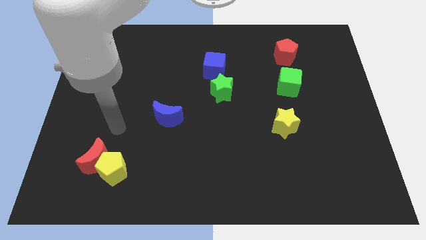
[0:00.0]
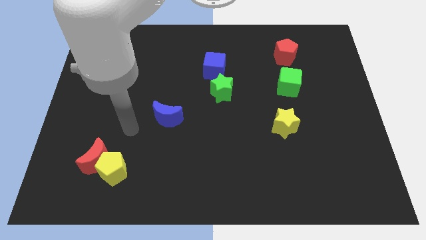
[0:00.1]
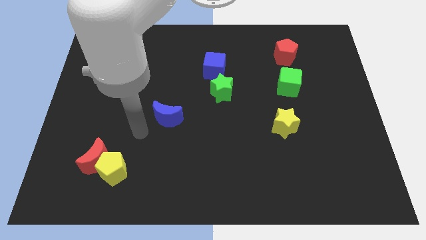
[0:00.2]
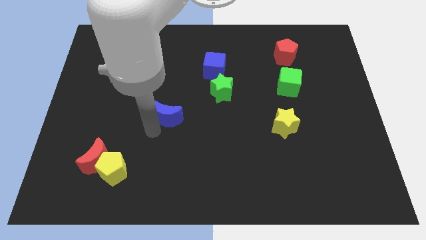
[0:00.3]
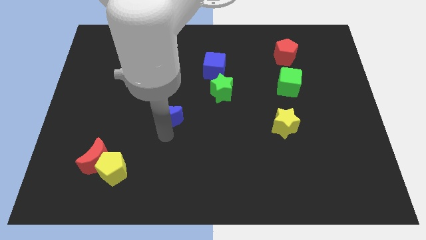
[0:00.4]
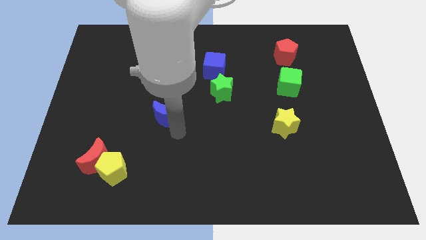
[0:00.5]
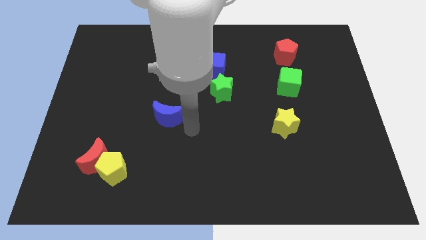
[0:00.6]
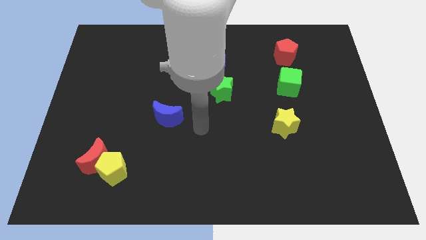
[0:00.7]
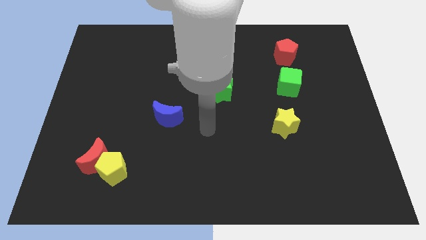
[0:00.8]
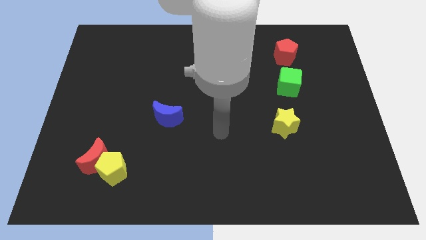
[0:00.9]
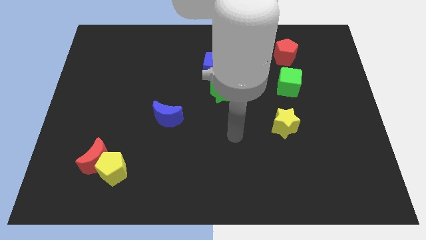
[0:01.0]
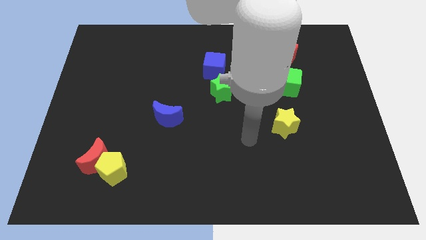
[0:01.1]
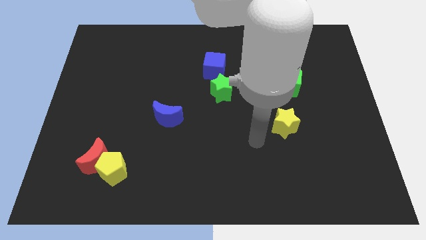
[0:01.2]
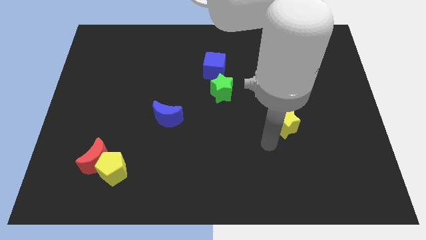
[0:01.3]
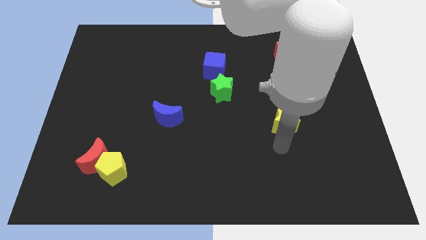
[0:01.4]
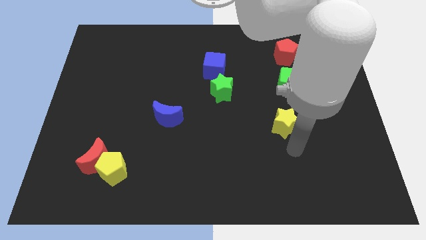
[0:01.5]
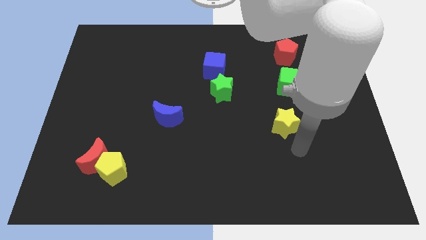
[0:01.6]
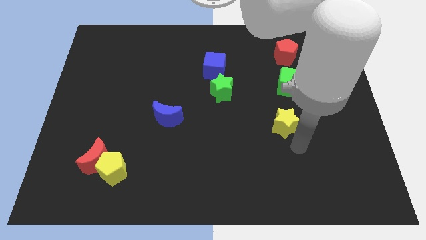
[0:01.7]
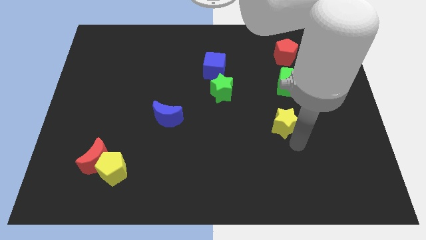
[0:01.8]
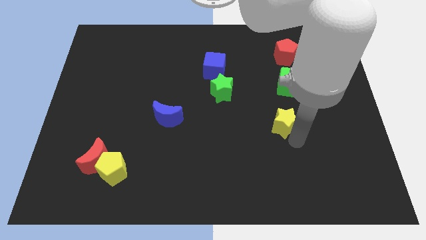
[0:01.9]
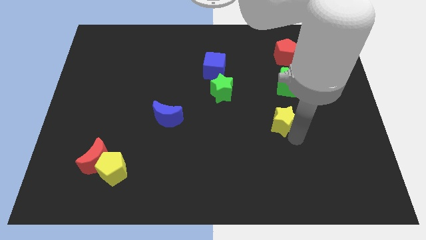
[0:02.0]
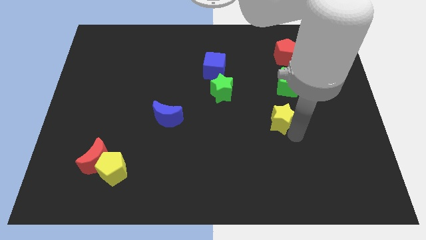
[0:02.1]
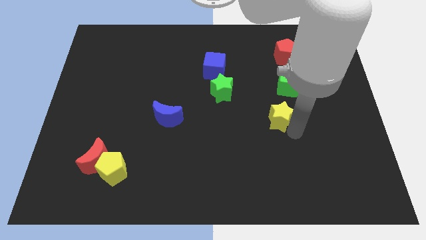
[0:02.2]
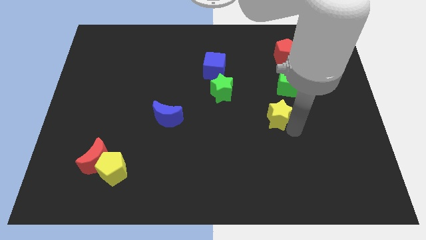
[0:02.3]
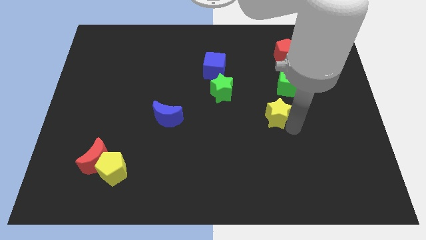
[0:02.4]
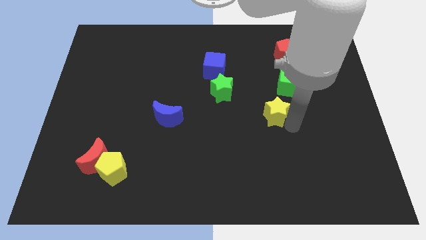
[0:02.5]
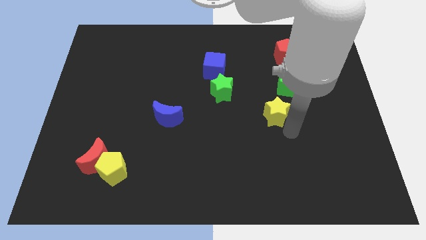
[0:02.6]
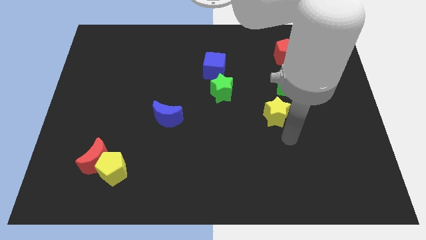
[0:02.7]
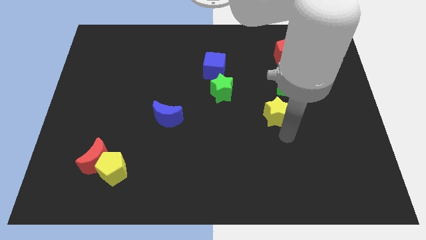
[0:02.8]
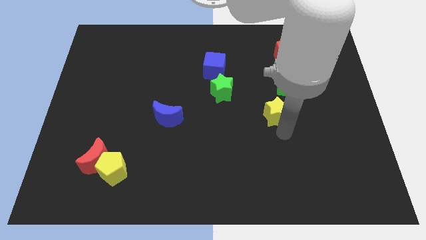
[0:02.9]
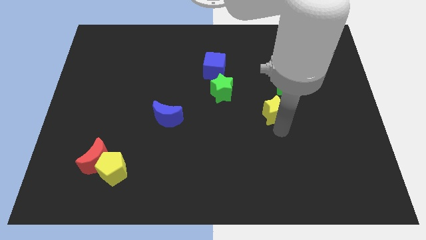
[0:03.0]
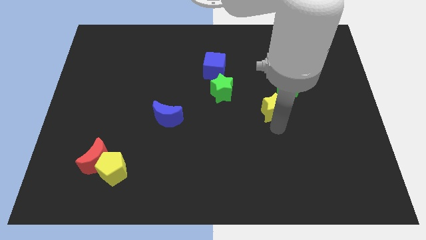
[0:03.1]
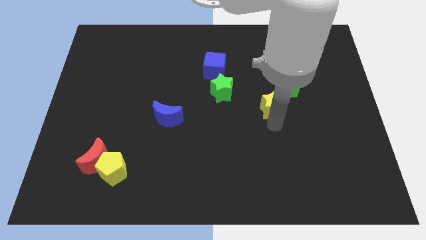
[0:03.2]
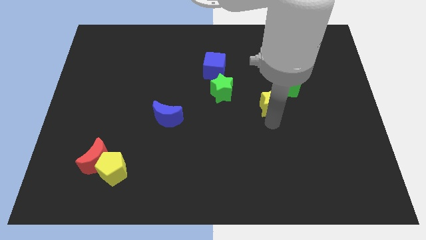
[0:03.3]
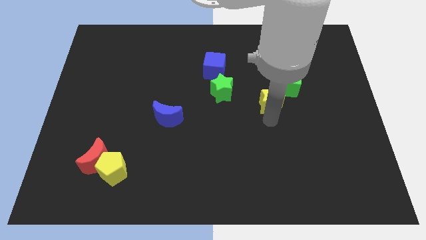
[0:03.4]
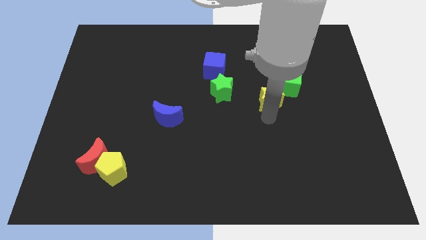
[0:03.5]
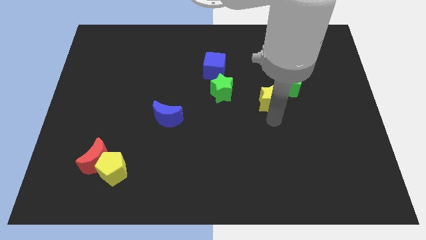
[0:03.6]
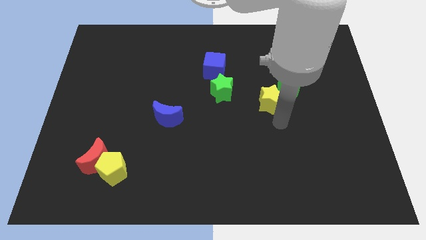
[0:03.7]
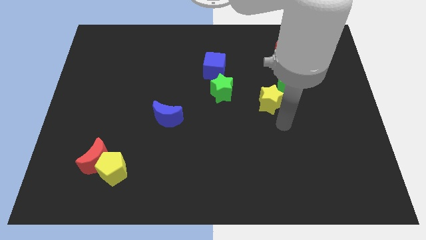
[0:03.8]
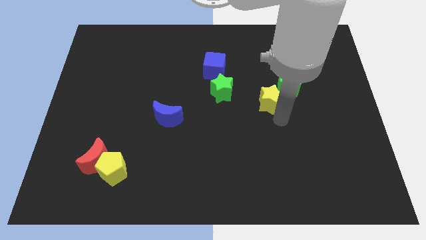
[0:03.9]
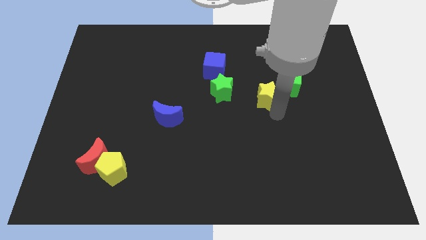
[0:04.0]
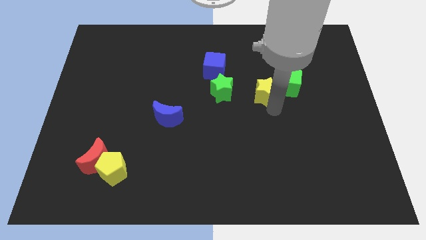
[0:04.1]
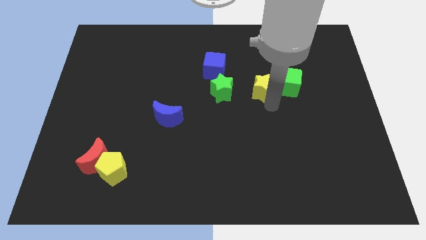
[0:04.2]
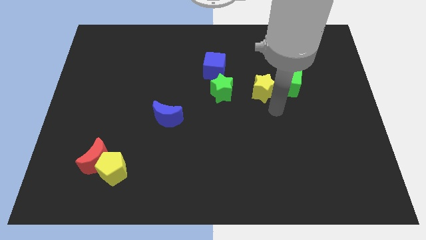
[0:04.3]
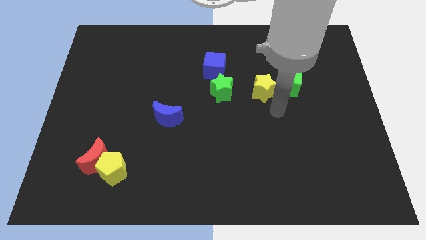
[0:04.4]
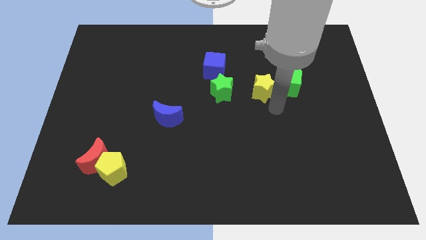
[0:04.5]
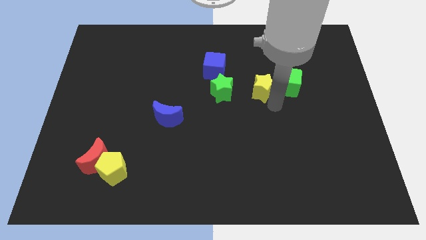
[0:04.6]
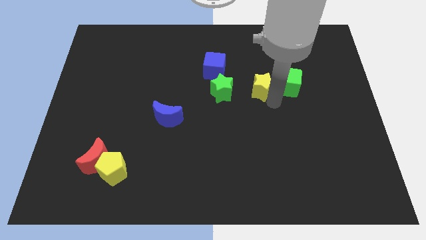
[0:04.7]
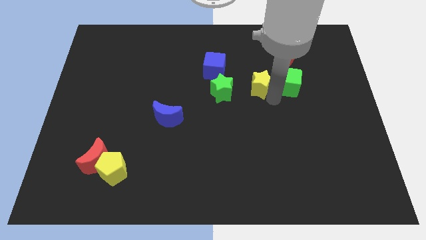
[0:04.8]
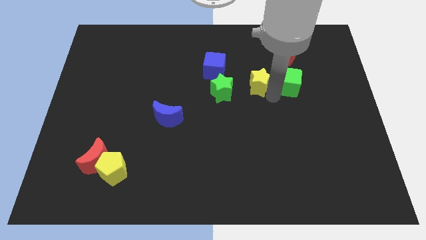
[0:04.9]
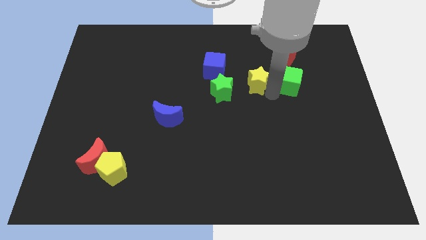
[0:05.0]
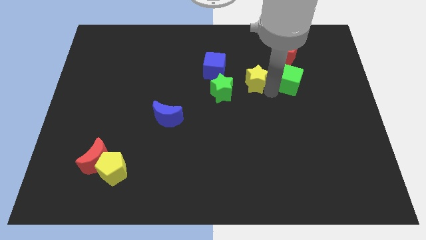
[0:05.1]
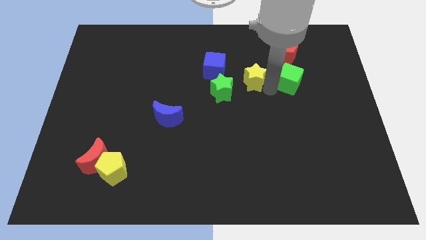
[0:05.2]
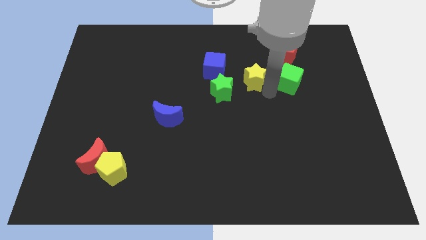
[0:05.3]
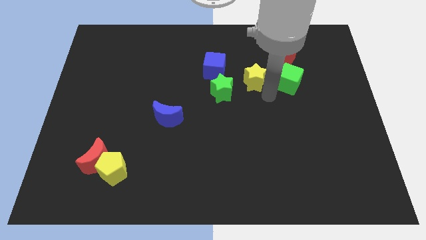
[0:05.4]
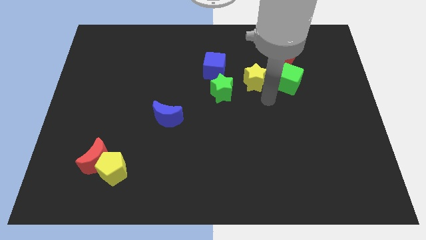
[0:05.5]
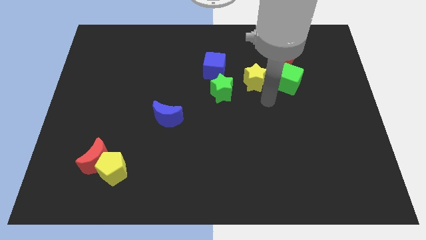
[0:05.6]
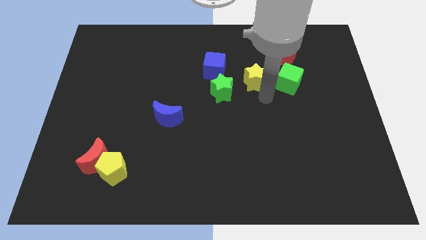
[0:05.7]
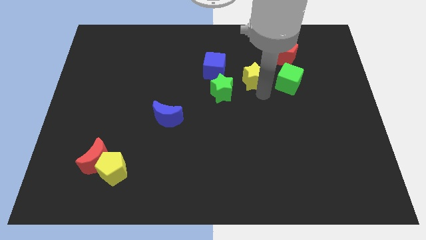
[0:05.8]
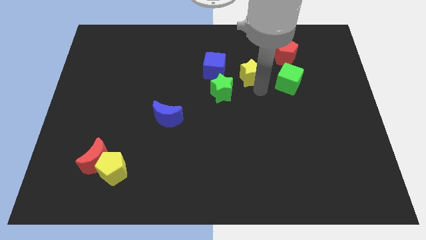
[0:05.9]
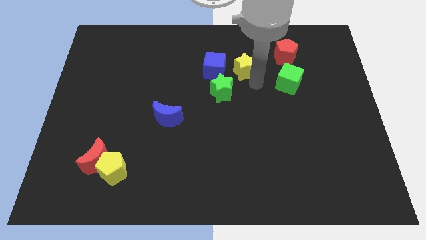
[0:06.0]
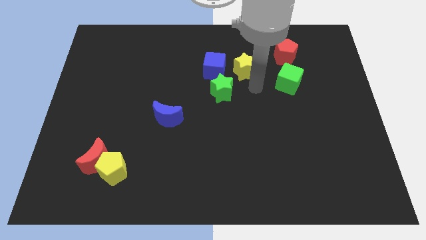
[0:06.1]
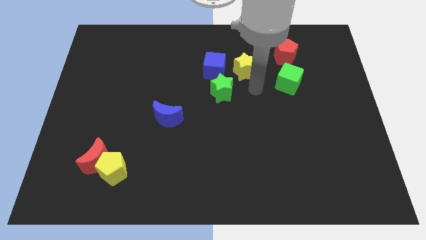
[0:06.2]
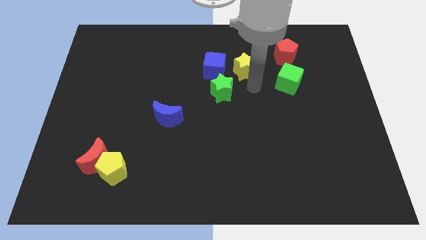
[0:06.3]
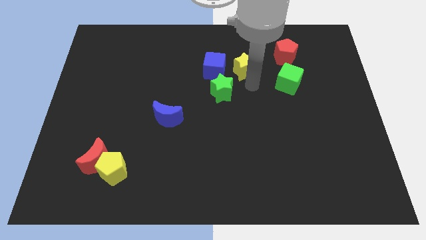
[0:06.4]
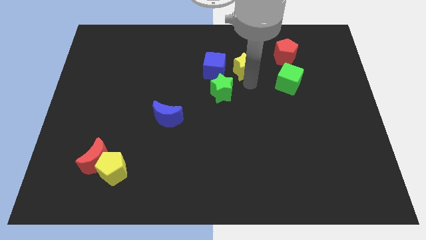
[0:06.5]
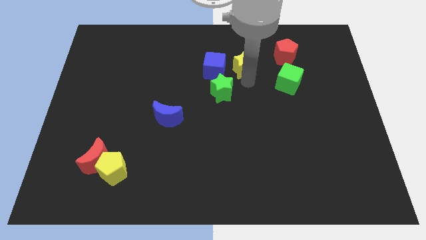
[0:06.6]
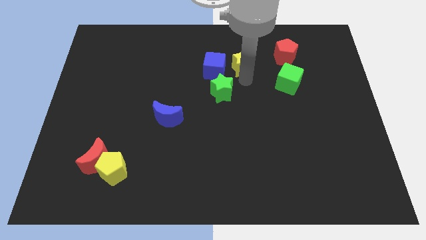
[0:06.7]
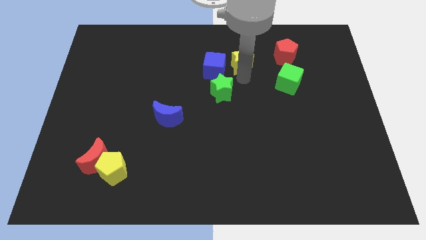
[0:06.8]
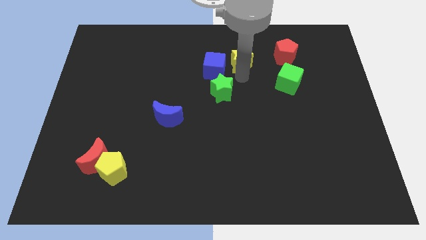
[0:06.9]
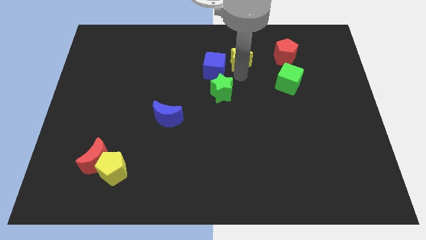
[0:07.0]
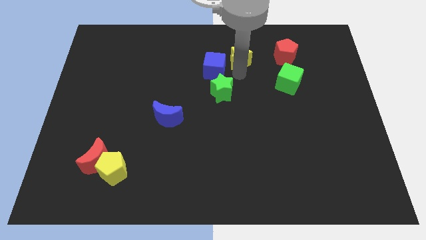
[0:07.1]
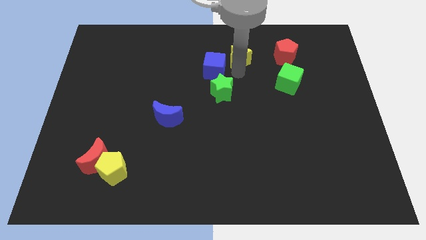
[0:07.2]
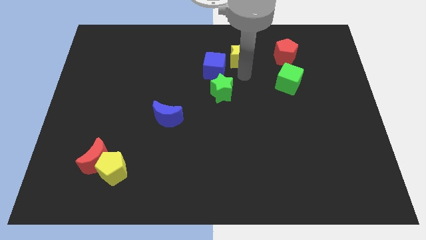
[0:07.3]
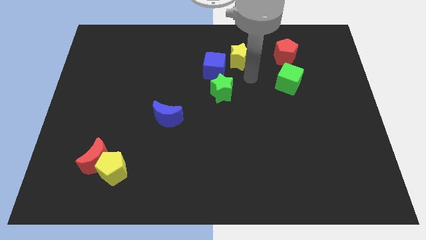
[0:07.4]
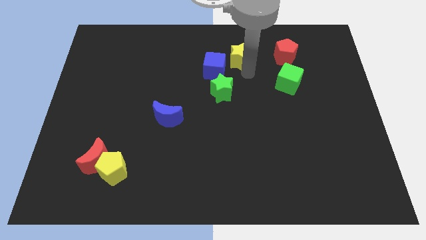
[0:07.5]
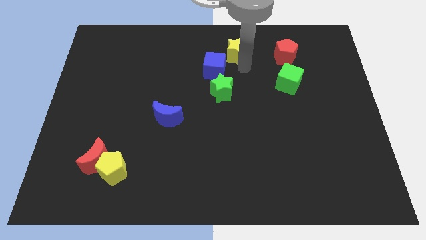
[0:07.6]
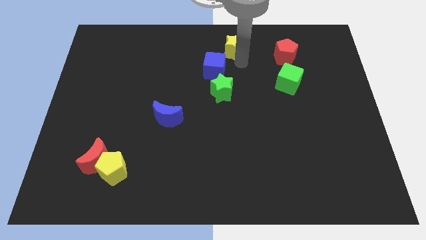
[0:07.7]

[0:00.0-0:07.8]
put the yellow star to the top side
